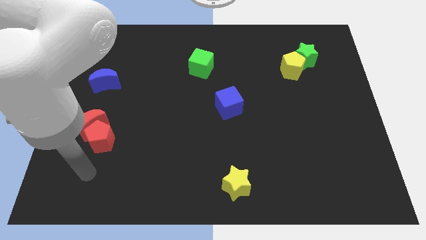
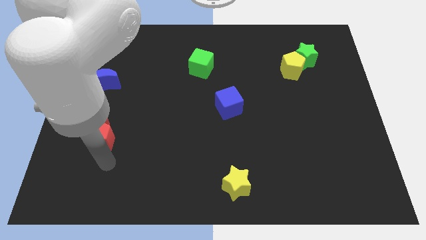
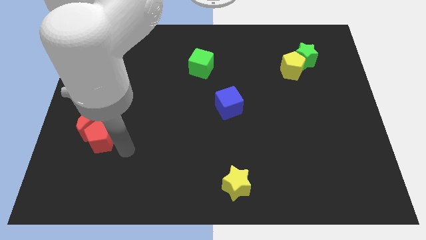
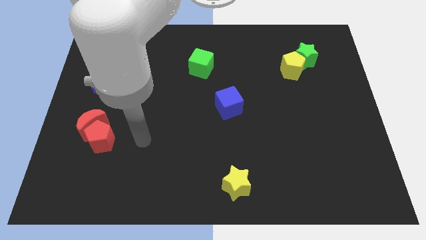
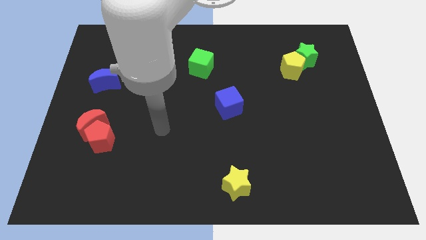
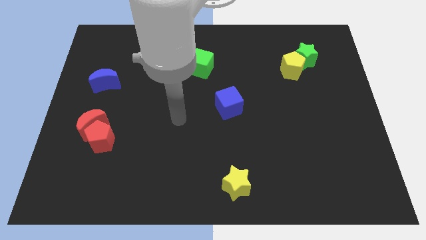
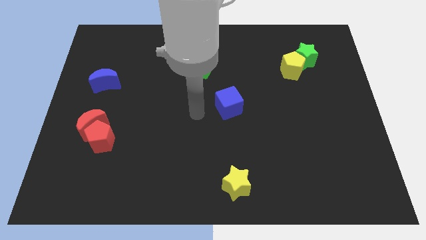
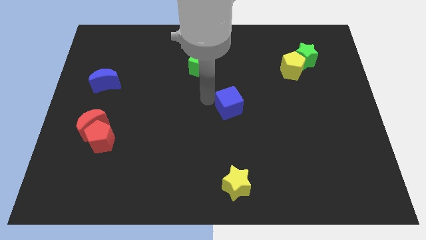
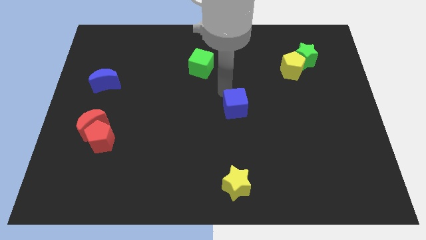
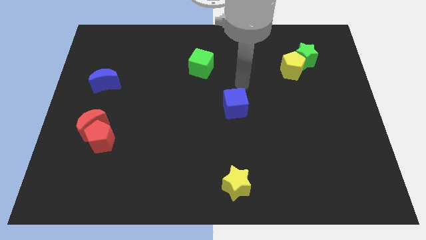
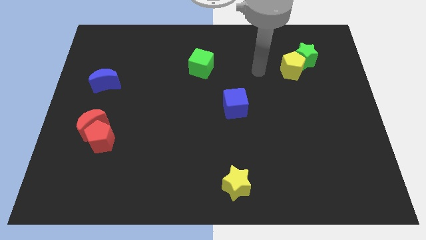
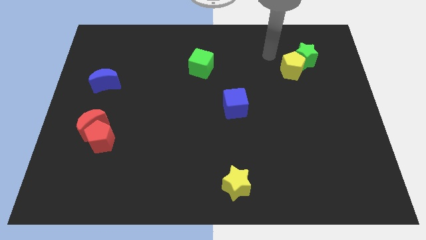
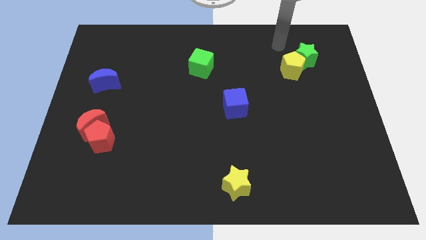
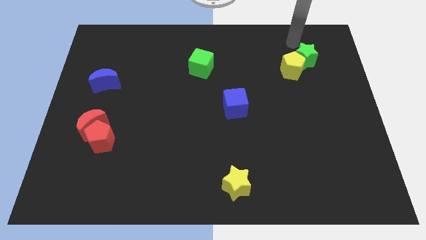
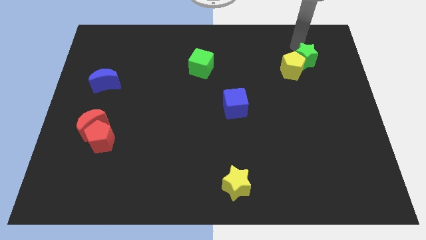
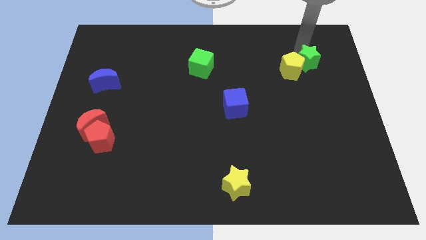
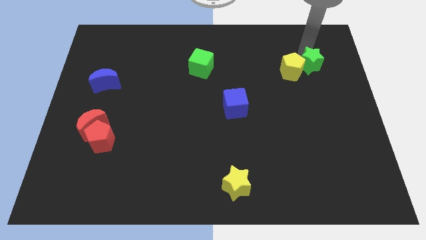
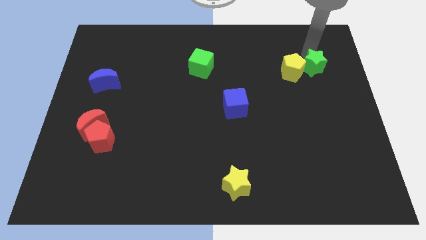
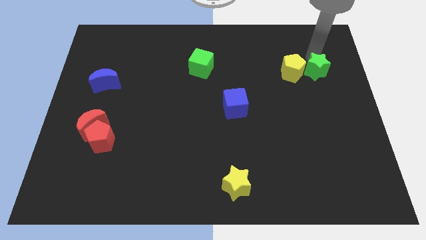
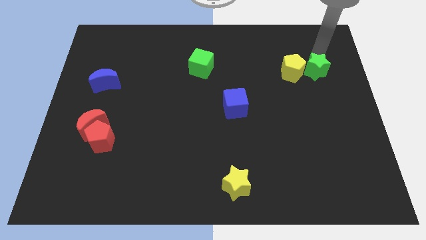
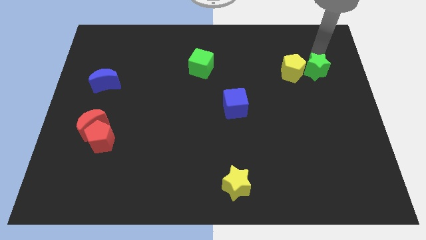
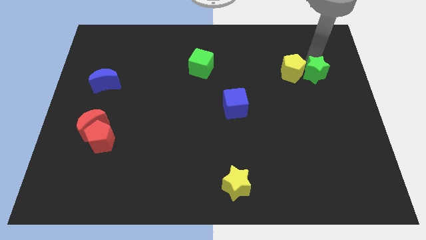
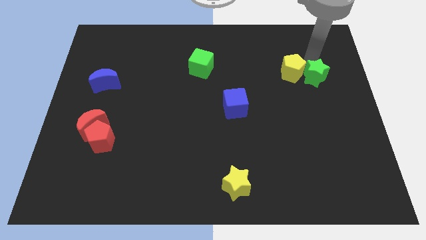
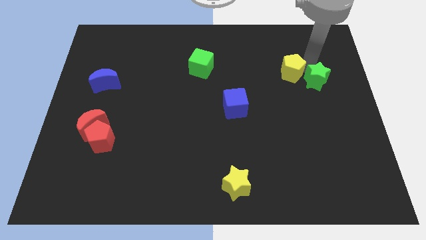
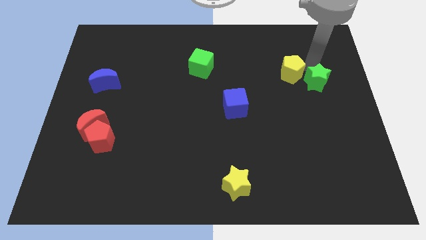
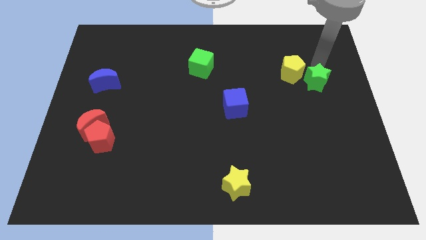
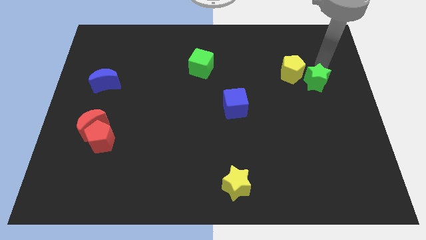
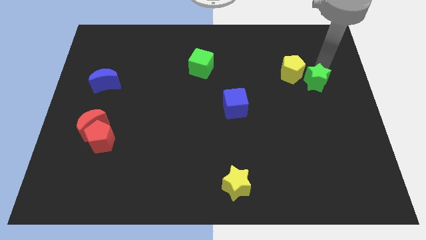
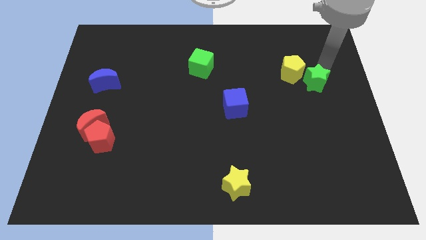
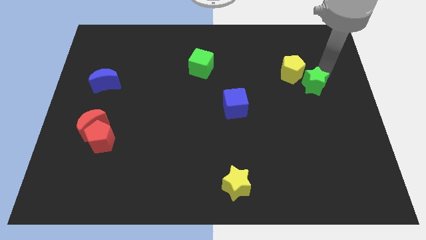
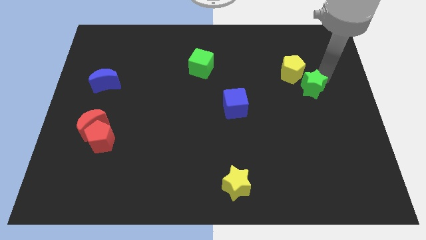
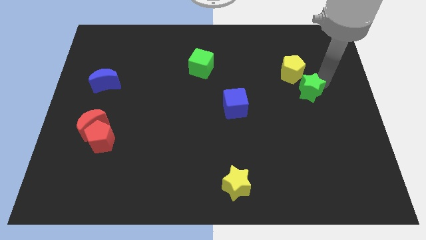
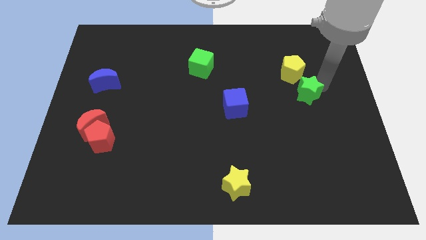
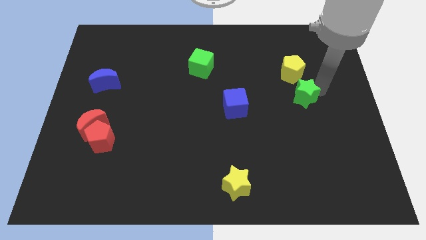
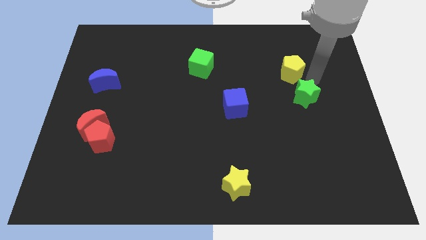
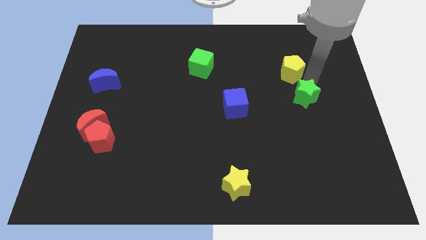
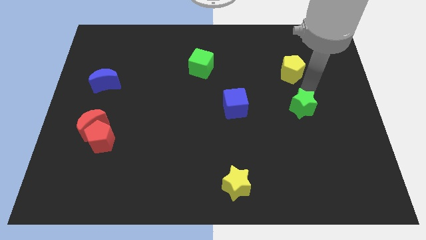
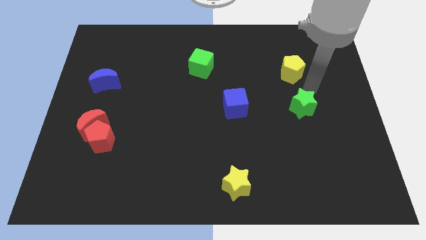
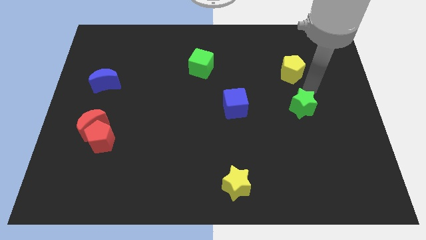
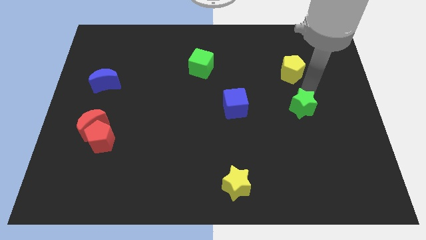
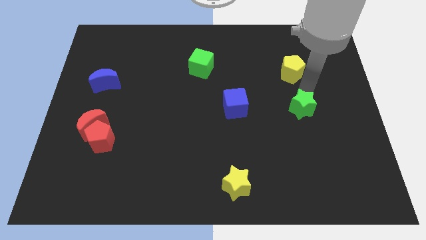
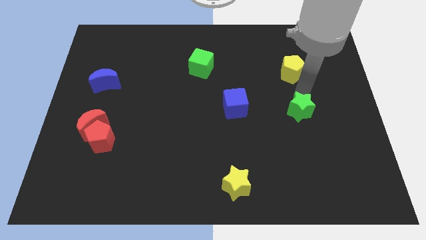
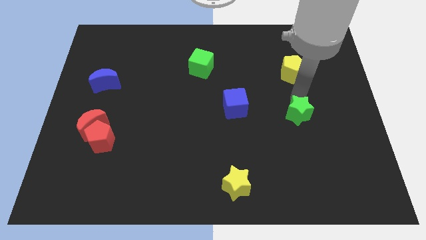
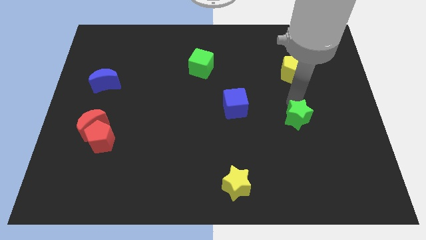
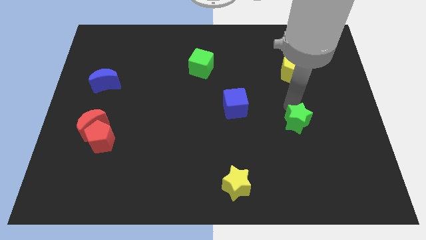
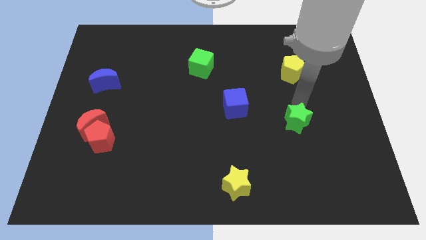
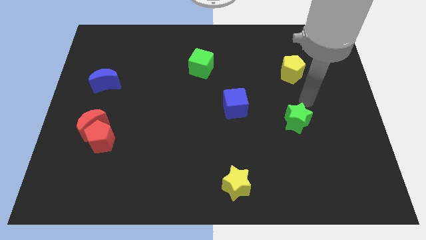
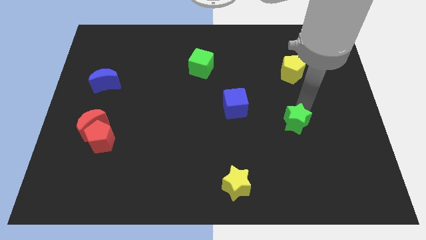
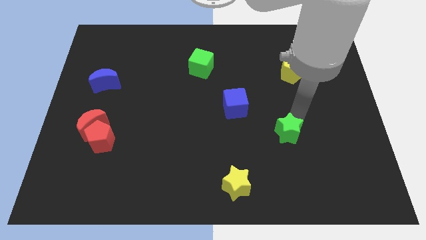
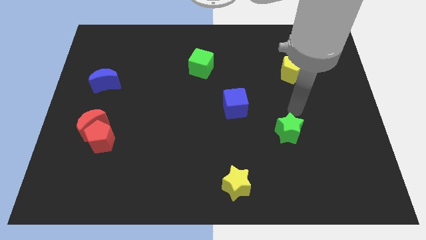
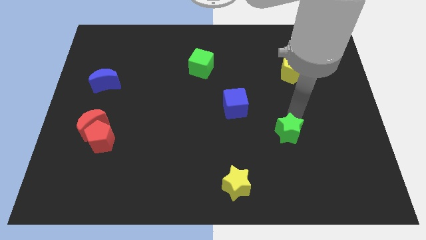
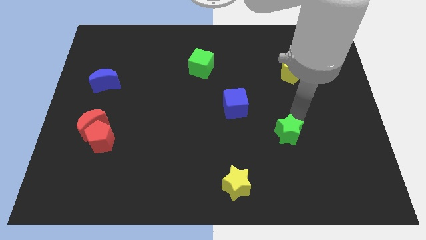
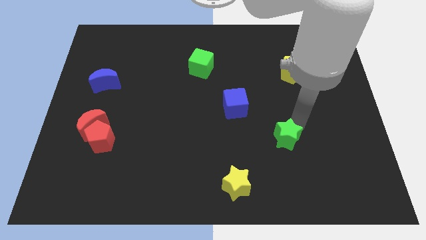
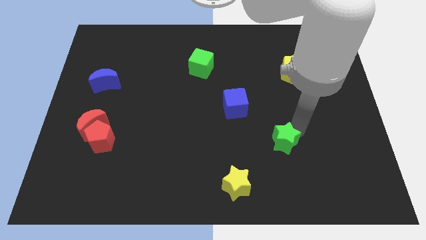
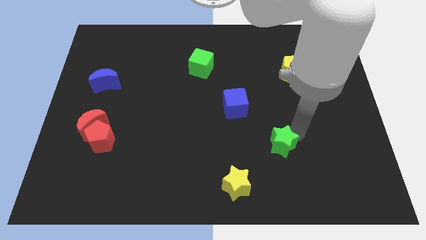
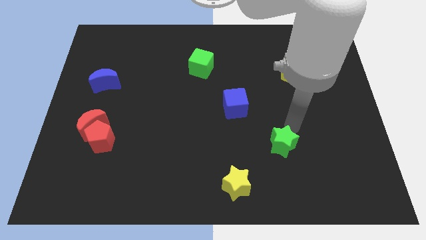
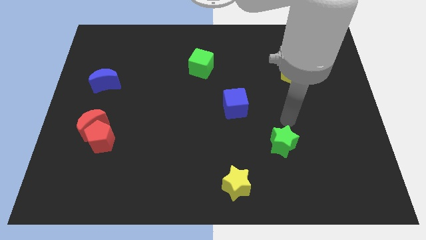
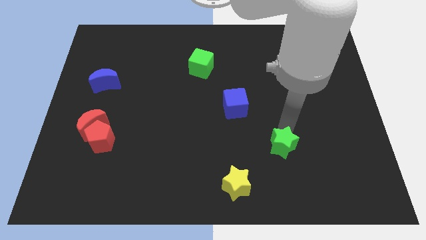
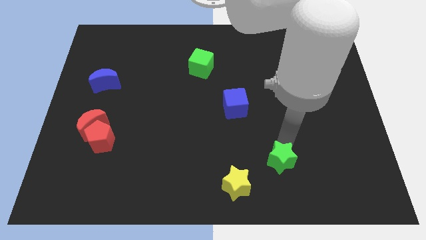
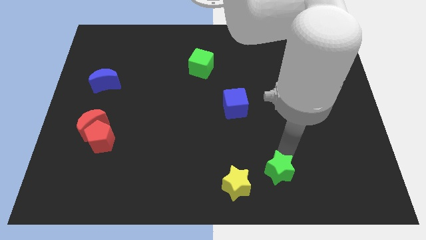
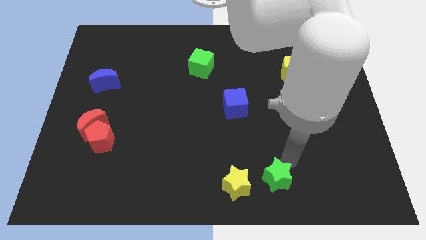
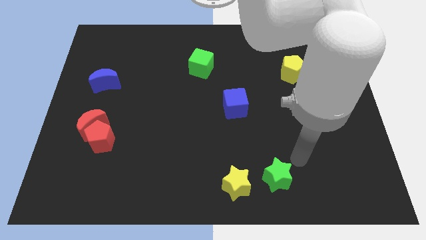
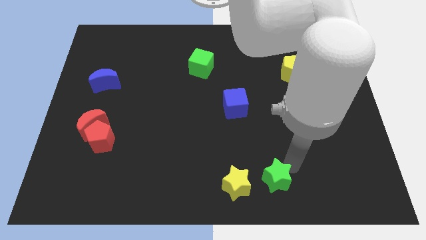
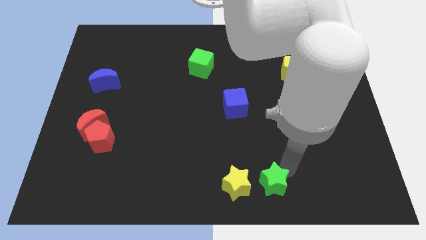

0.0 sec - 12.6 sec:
move the green star to the bottom

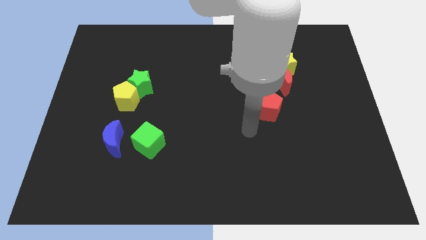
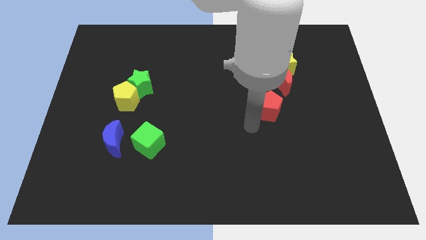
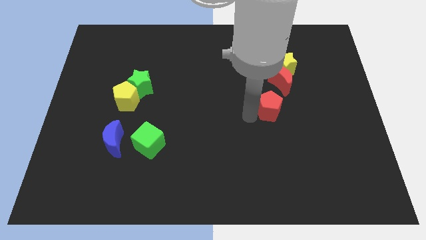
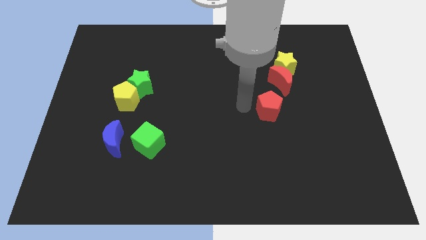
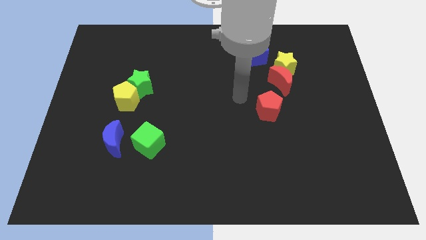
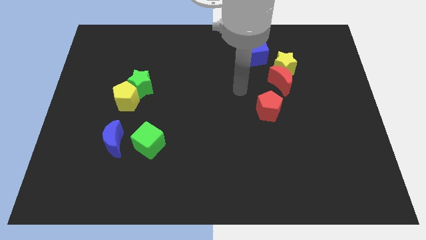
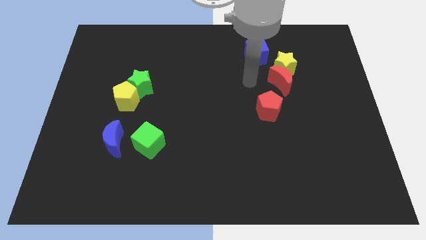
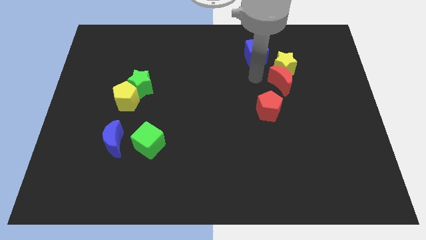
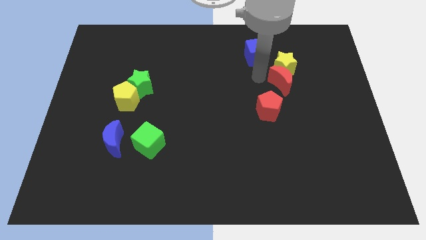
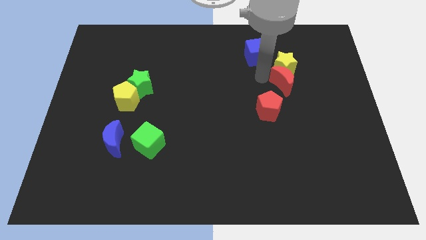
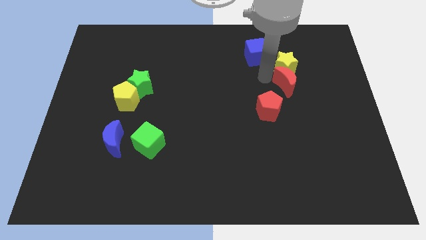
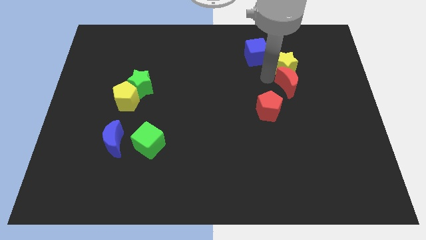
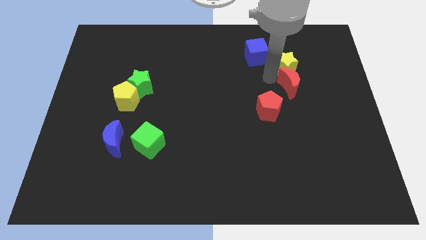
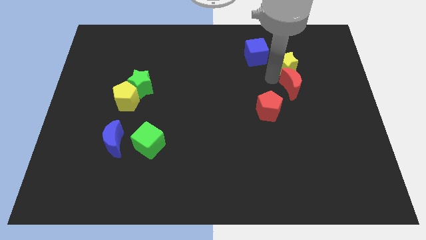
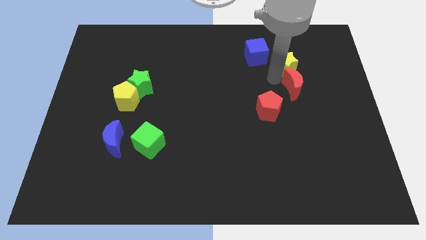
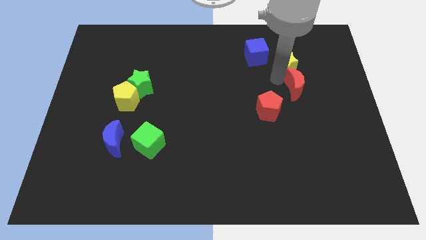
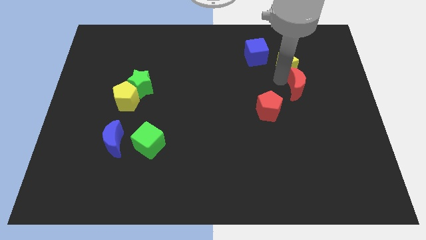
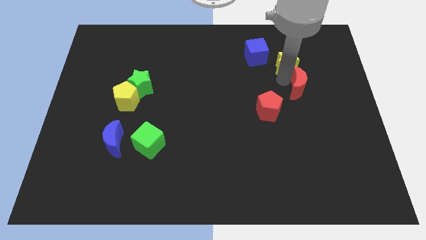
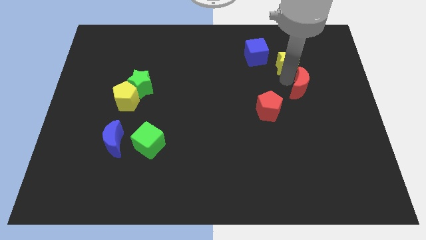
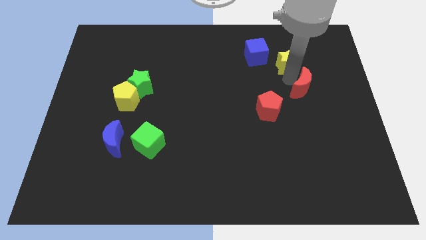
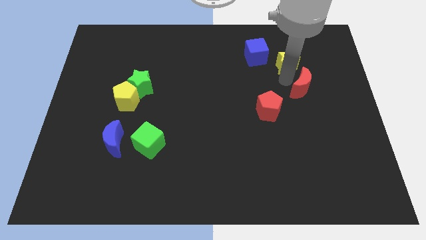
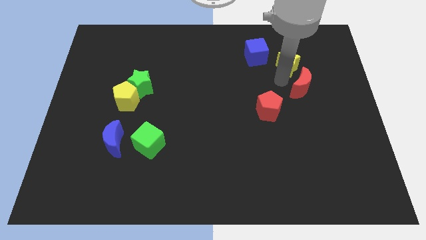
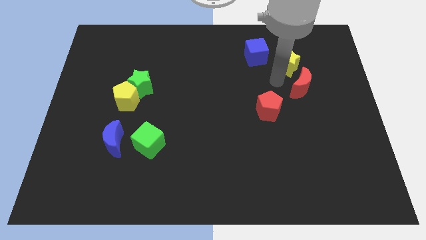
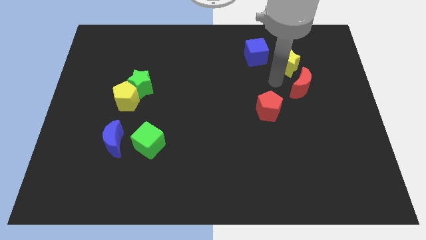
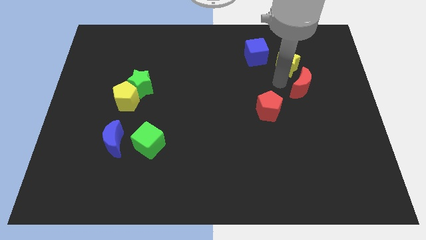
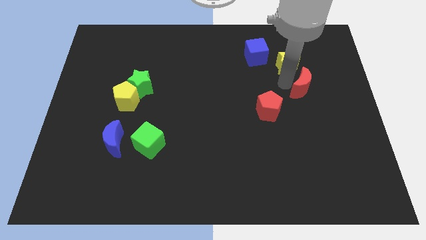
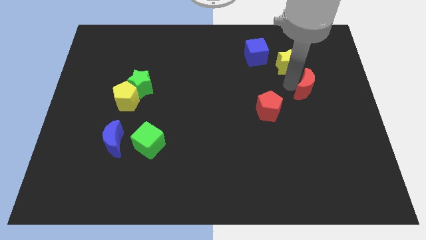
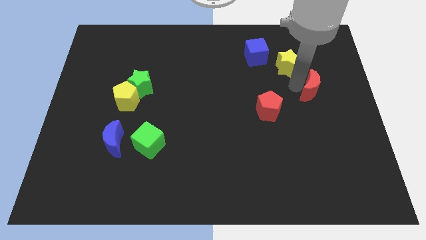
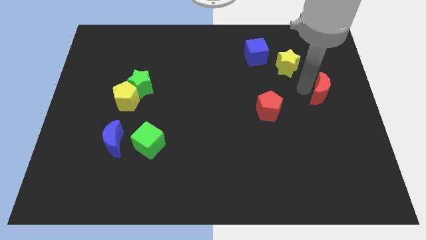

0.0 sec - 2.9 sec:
push the red moon to the right side of the board
